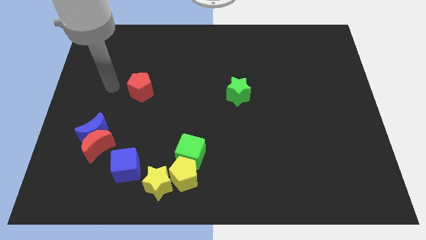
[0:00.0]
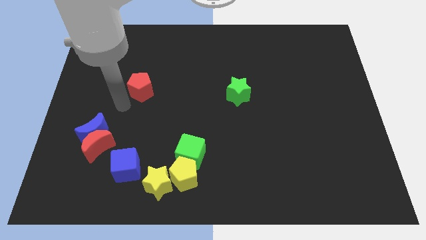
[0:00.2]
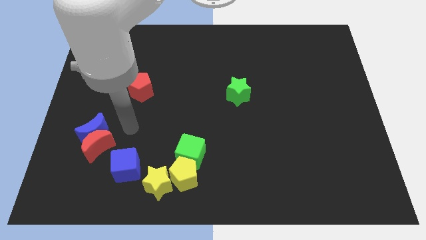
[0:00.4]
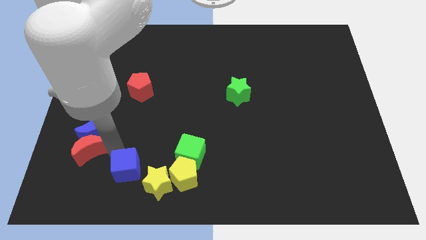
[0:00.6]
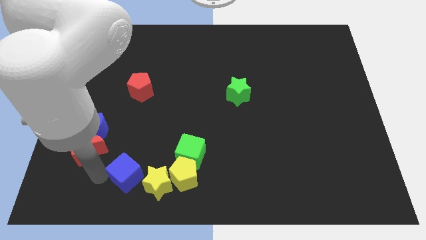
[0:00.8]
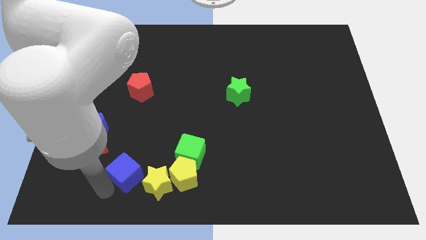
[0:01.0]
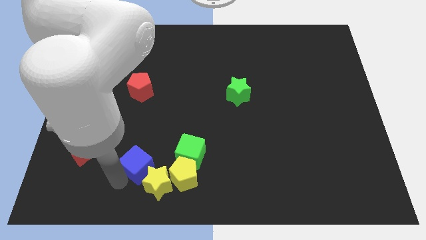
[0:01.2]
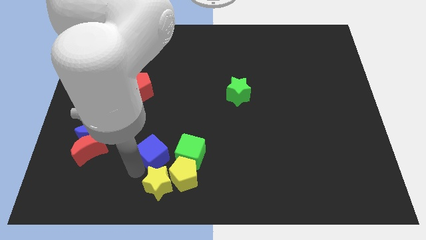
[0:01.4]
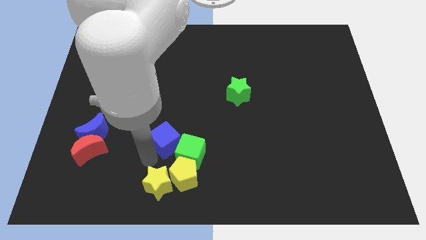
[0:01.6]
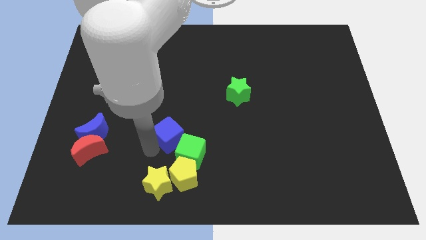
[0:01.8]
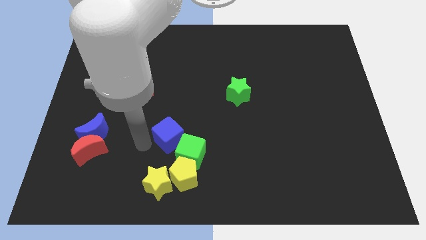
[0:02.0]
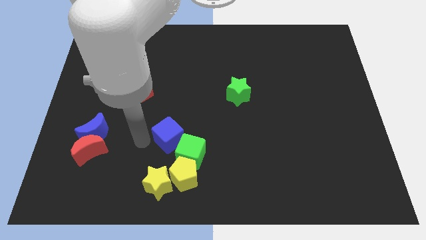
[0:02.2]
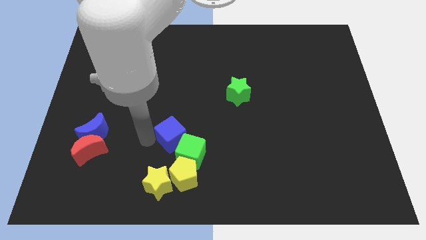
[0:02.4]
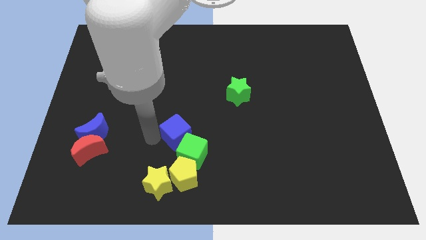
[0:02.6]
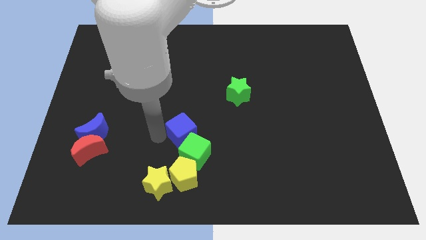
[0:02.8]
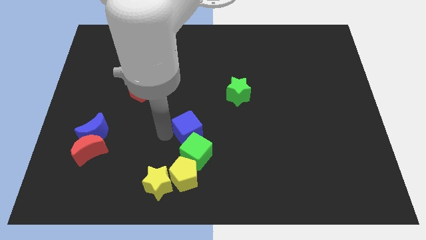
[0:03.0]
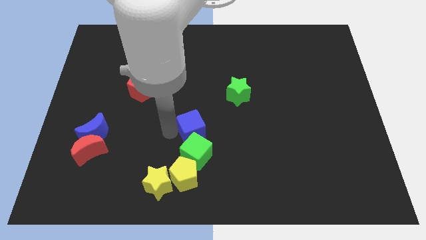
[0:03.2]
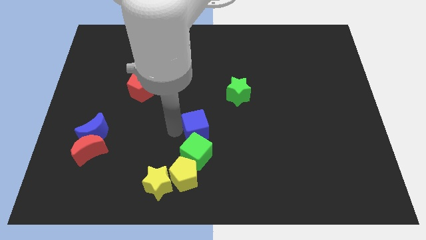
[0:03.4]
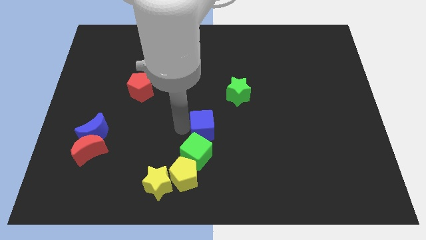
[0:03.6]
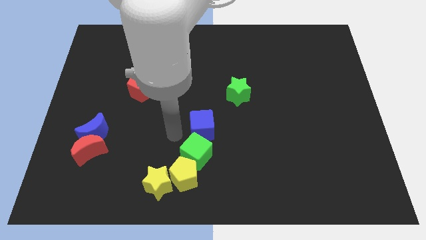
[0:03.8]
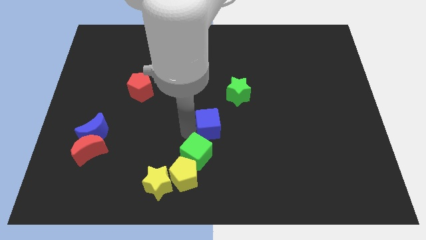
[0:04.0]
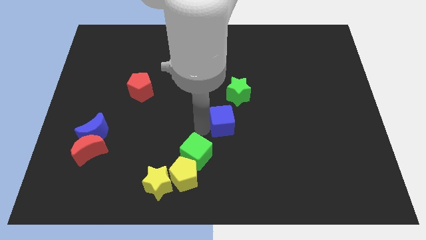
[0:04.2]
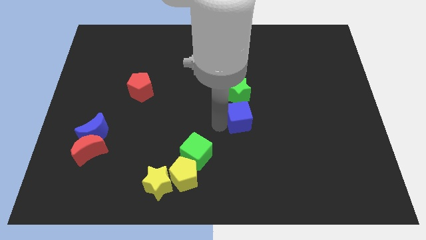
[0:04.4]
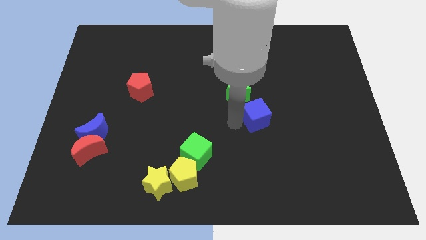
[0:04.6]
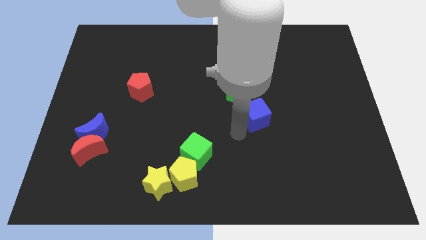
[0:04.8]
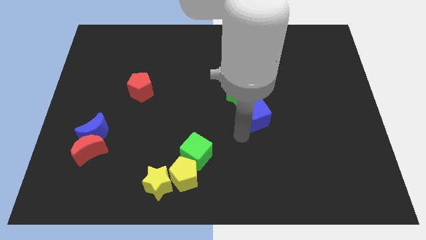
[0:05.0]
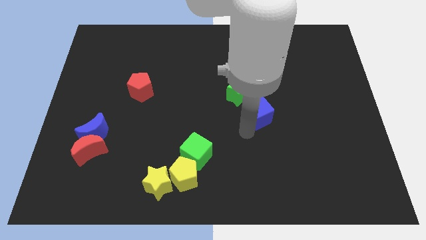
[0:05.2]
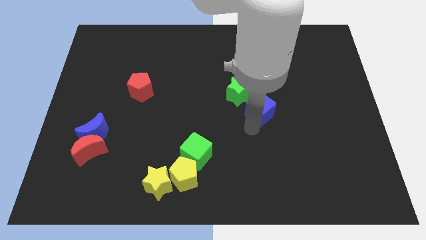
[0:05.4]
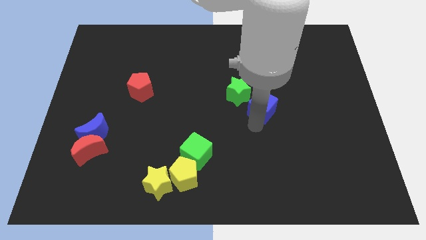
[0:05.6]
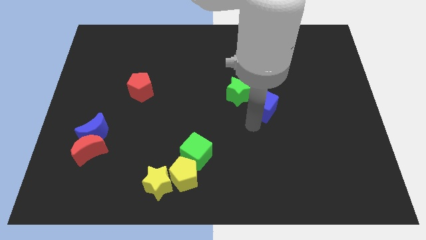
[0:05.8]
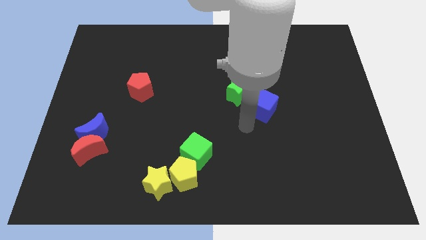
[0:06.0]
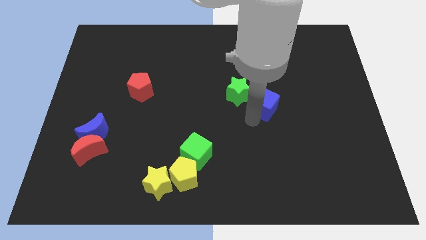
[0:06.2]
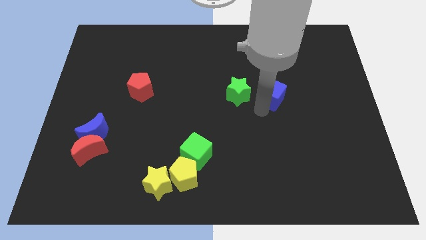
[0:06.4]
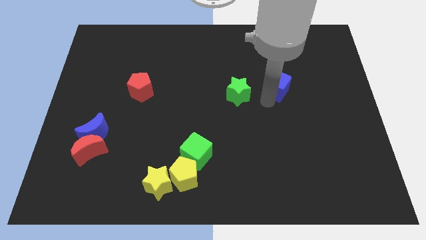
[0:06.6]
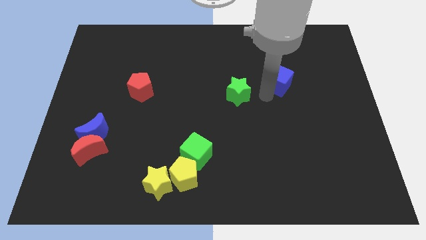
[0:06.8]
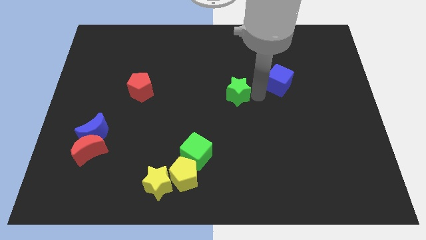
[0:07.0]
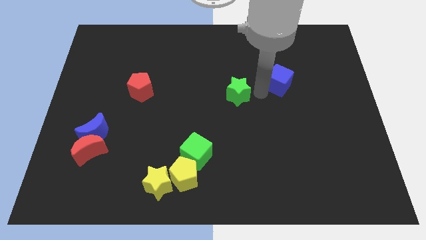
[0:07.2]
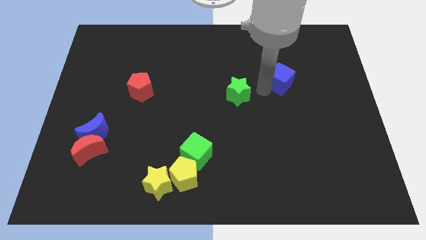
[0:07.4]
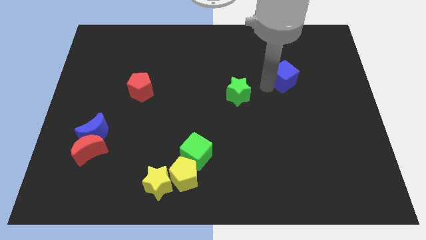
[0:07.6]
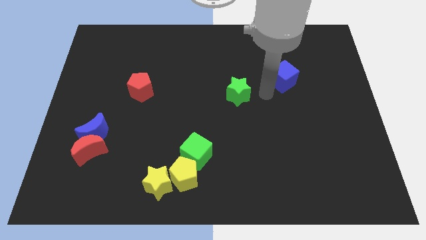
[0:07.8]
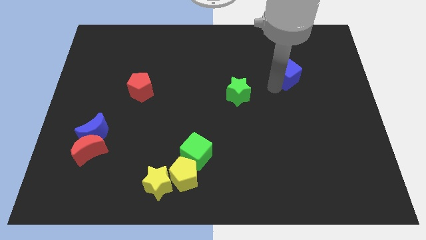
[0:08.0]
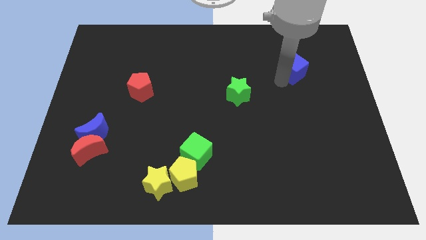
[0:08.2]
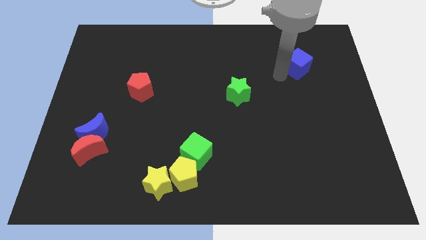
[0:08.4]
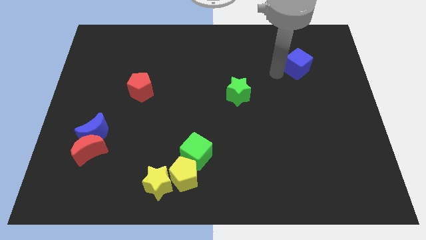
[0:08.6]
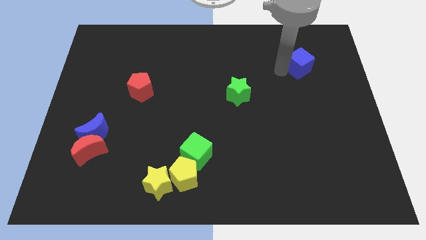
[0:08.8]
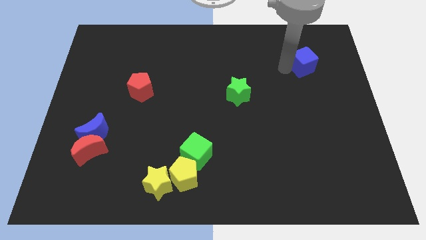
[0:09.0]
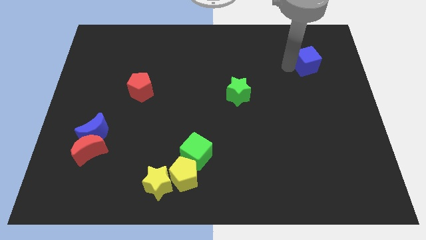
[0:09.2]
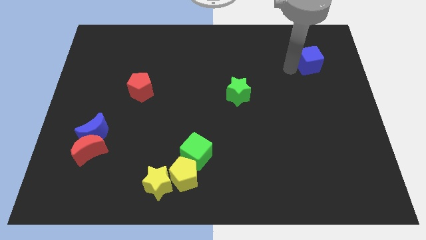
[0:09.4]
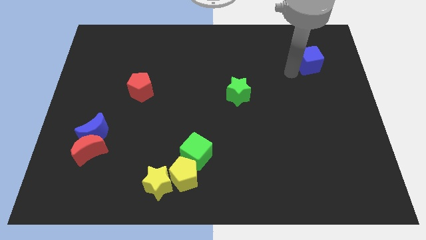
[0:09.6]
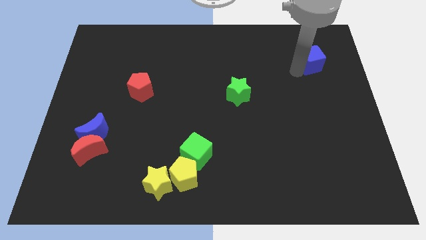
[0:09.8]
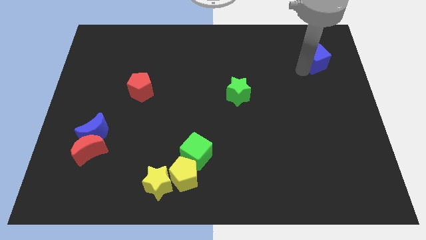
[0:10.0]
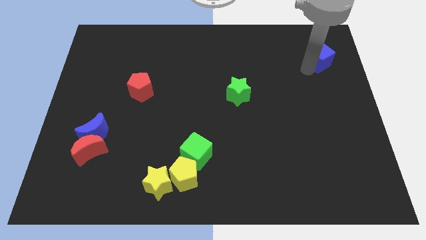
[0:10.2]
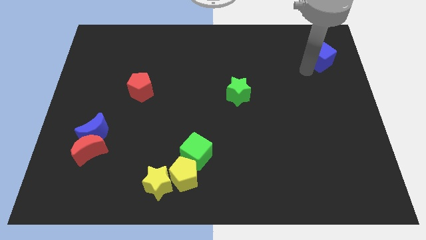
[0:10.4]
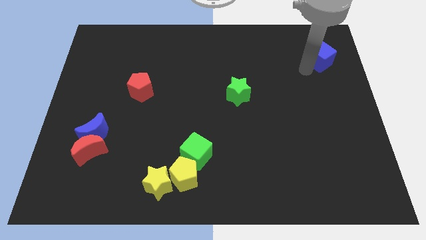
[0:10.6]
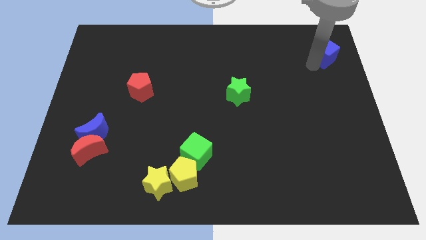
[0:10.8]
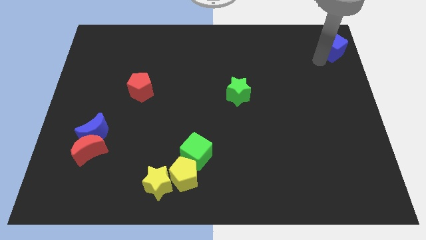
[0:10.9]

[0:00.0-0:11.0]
put the blue cube to the top right corner

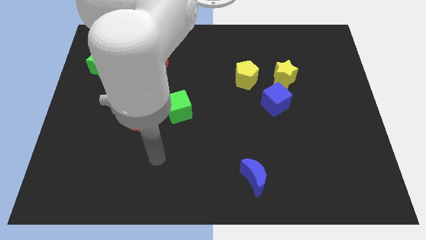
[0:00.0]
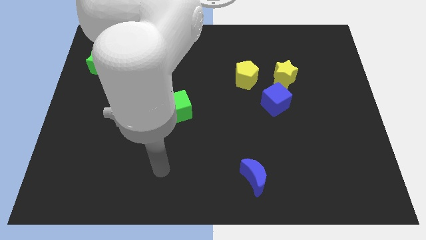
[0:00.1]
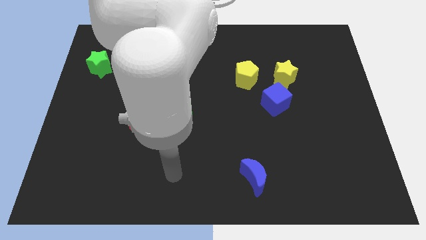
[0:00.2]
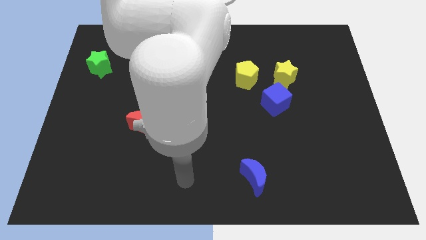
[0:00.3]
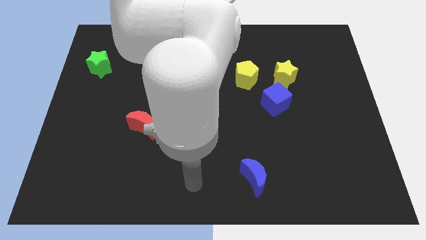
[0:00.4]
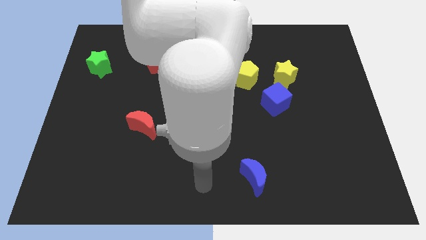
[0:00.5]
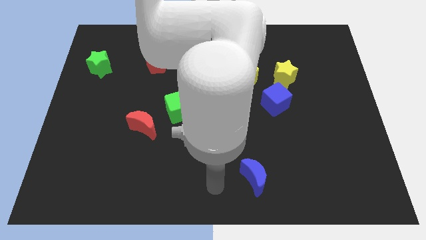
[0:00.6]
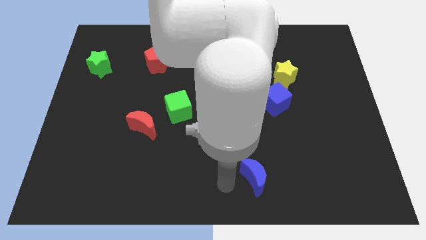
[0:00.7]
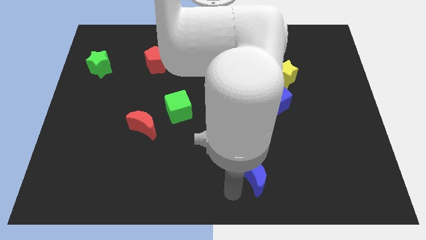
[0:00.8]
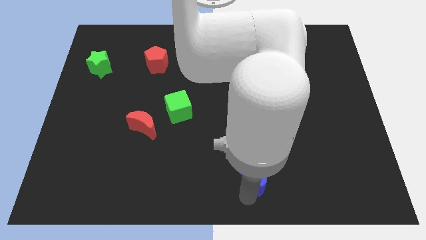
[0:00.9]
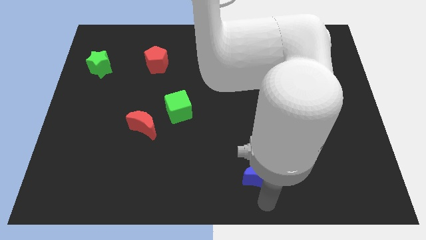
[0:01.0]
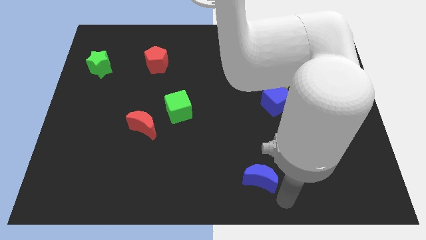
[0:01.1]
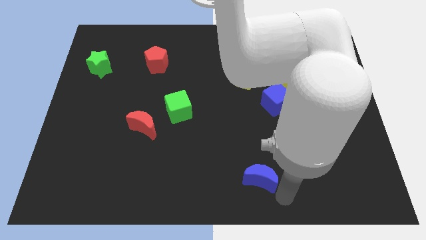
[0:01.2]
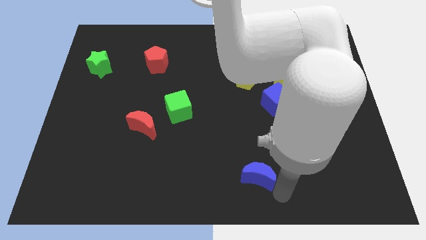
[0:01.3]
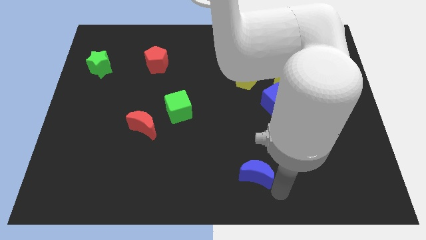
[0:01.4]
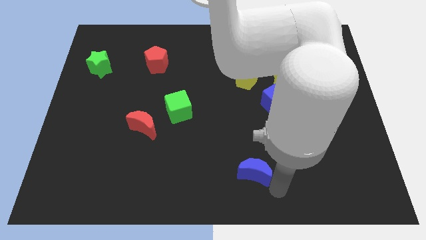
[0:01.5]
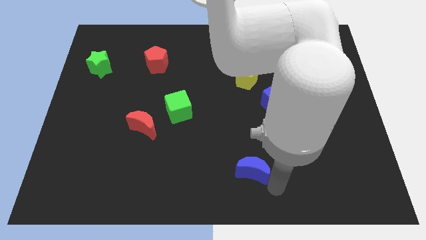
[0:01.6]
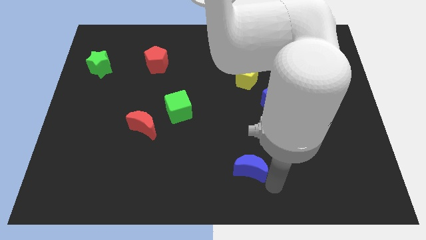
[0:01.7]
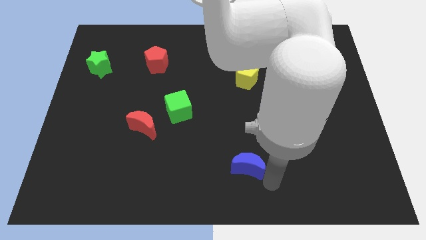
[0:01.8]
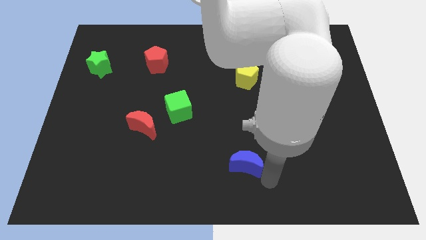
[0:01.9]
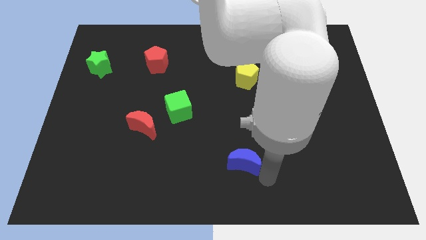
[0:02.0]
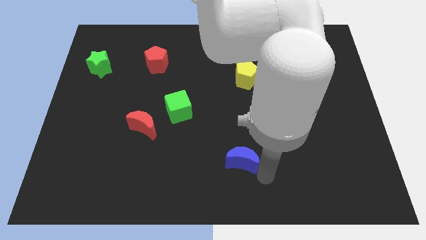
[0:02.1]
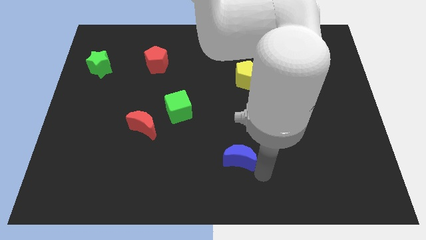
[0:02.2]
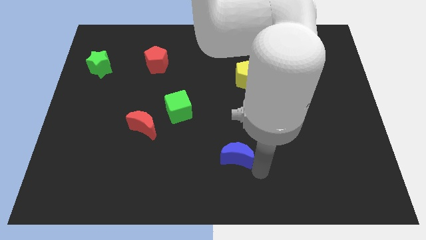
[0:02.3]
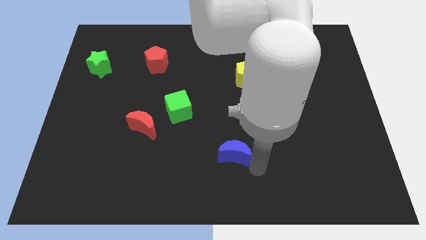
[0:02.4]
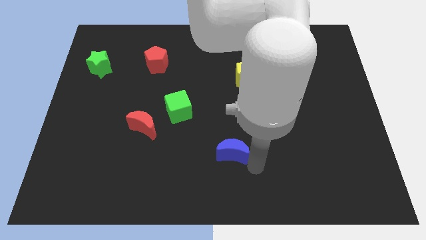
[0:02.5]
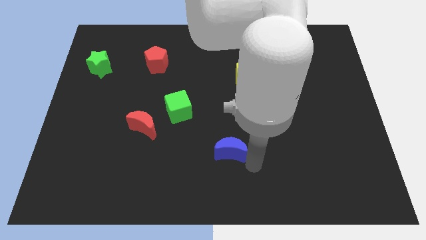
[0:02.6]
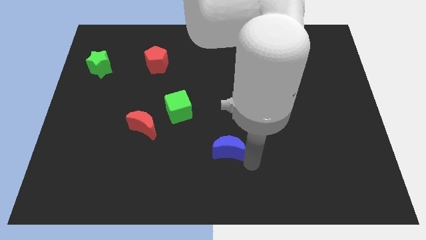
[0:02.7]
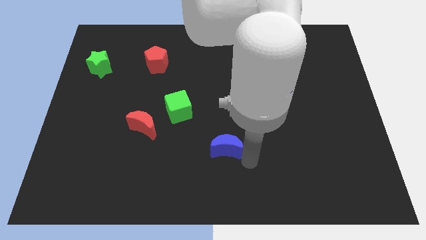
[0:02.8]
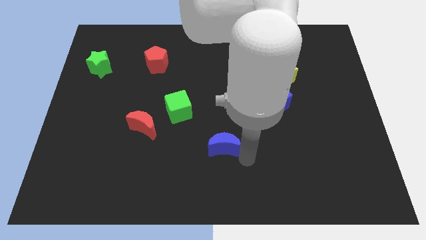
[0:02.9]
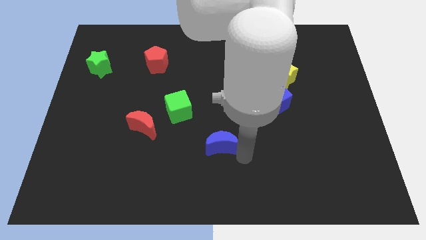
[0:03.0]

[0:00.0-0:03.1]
put the blue moon to the center
